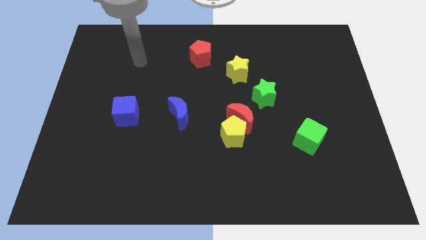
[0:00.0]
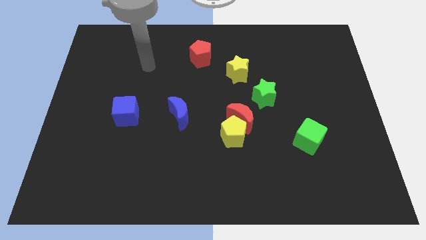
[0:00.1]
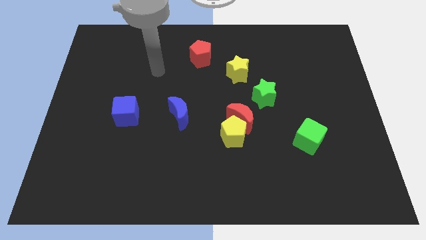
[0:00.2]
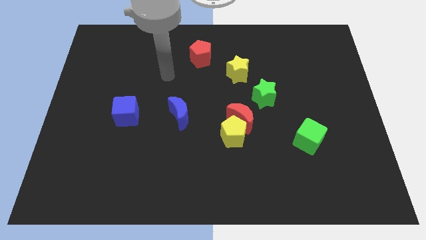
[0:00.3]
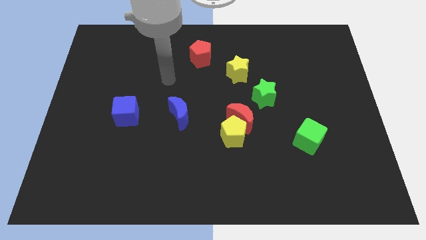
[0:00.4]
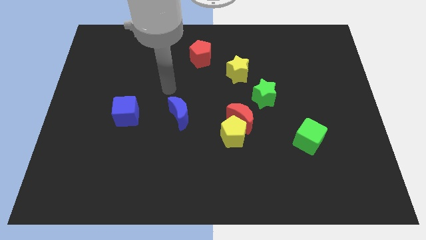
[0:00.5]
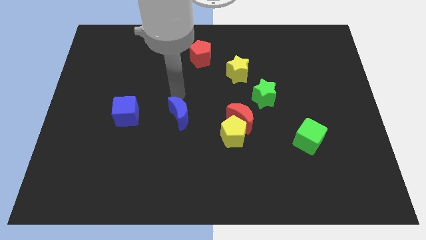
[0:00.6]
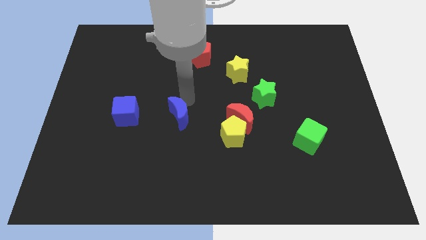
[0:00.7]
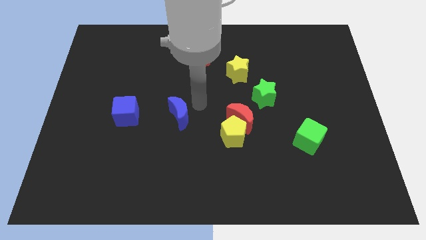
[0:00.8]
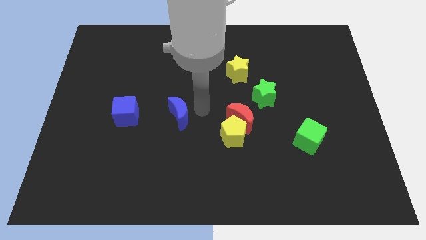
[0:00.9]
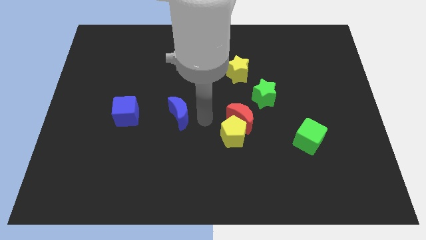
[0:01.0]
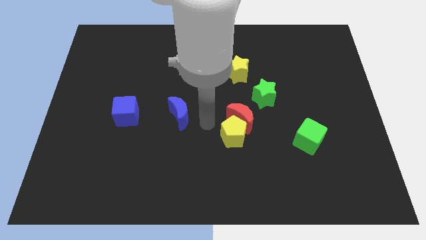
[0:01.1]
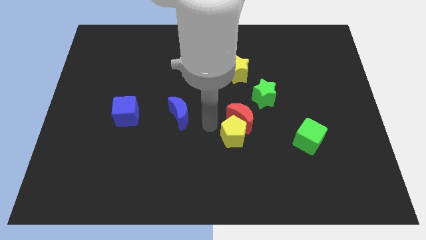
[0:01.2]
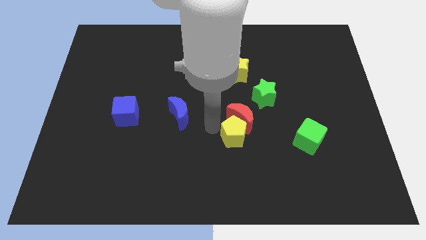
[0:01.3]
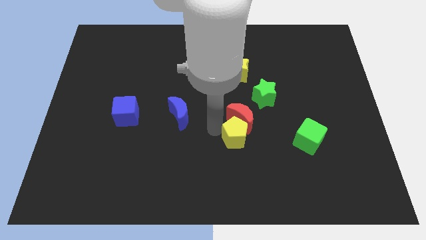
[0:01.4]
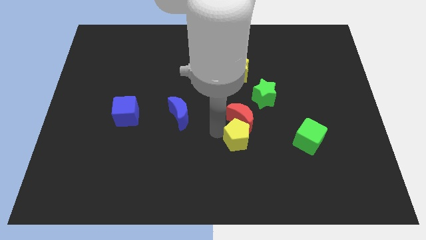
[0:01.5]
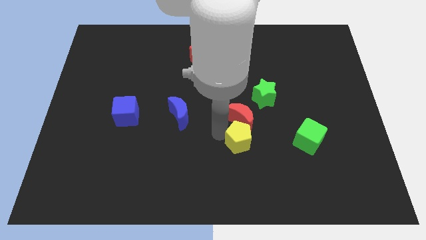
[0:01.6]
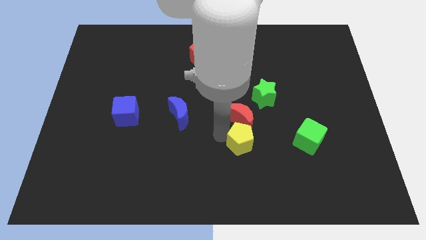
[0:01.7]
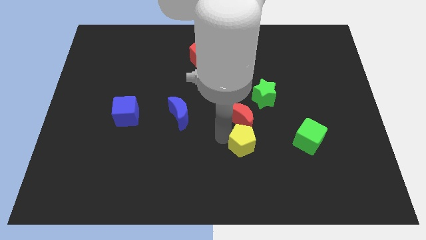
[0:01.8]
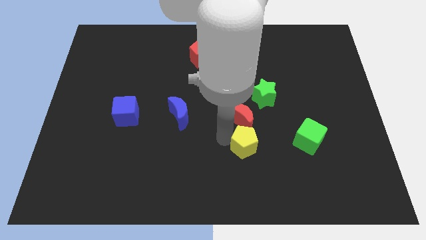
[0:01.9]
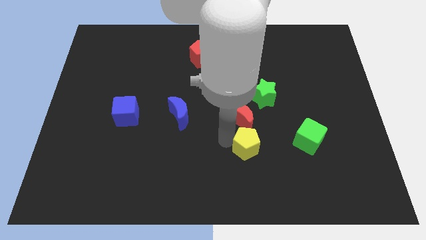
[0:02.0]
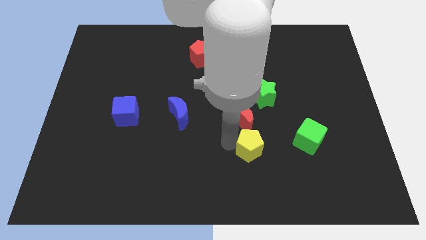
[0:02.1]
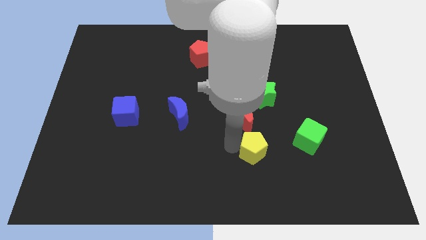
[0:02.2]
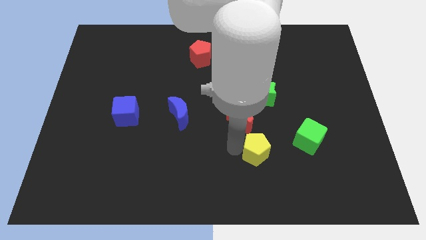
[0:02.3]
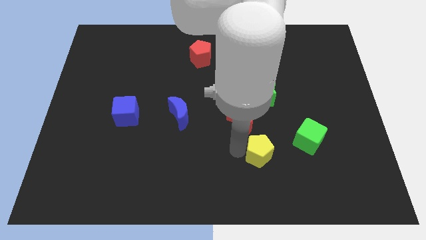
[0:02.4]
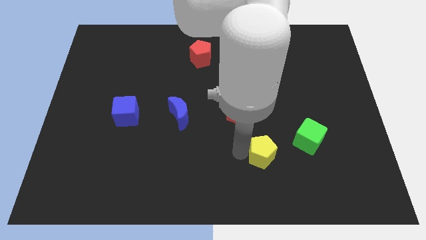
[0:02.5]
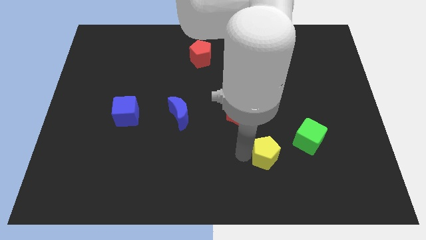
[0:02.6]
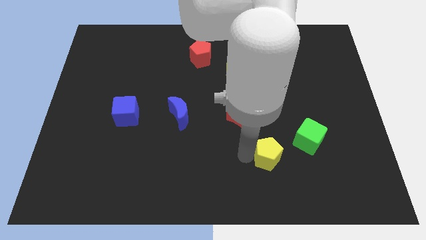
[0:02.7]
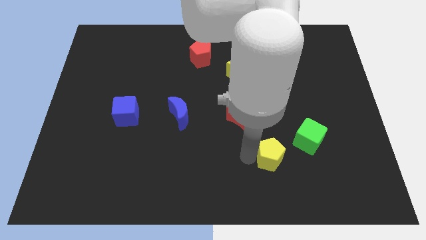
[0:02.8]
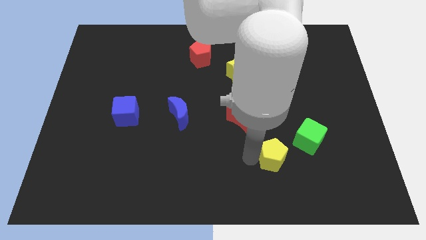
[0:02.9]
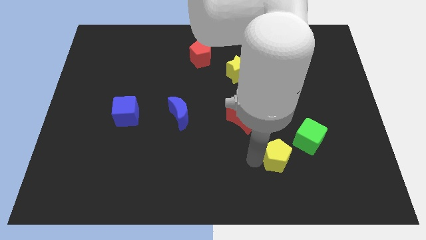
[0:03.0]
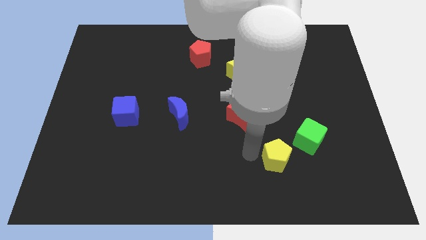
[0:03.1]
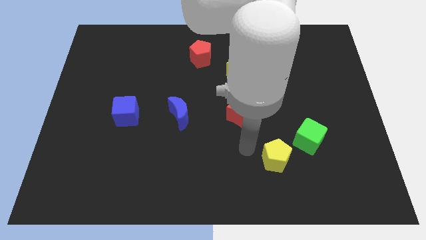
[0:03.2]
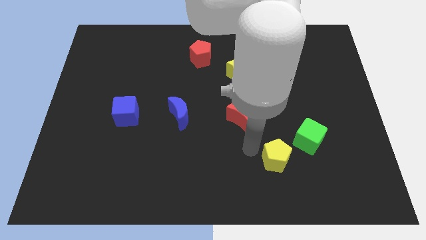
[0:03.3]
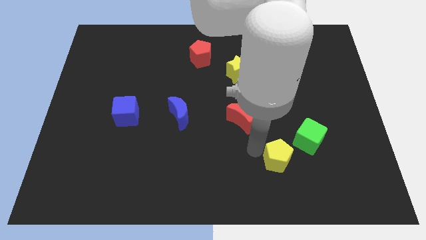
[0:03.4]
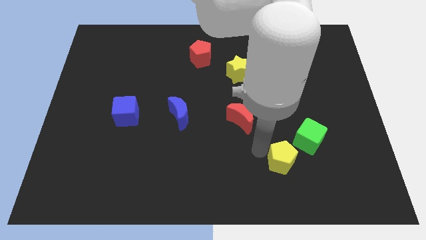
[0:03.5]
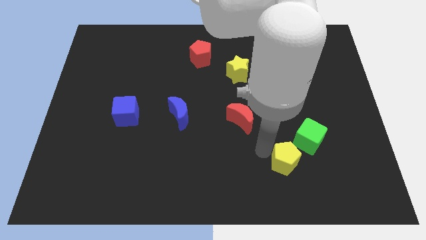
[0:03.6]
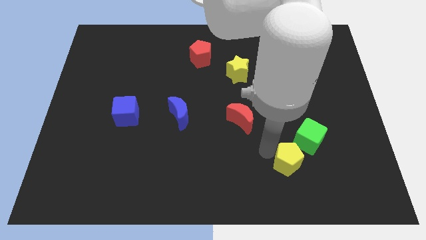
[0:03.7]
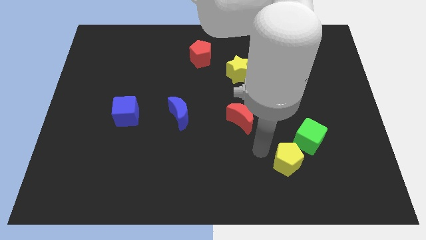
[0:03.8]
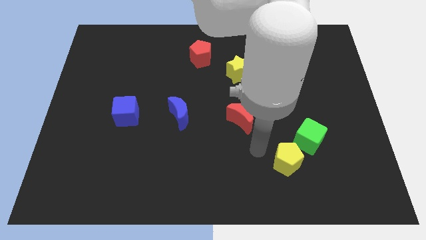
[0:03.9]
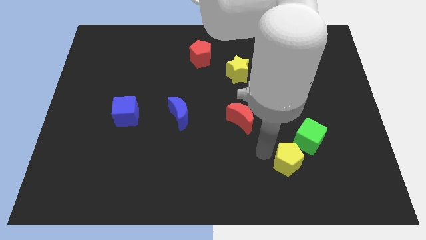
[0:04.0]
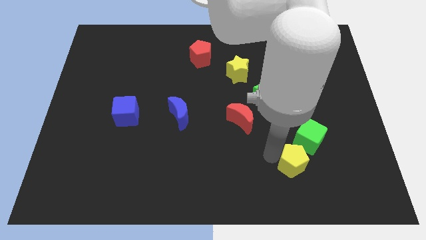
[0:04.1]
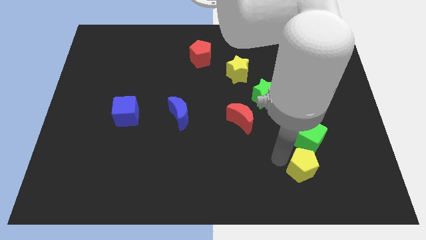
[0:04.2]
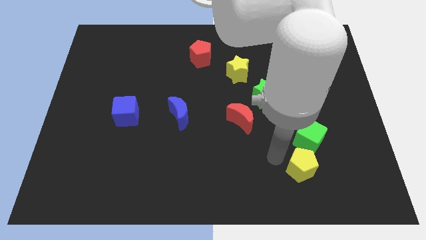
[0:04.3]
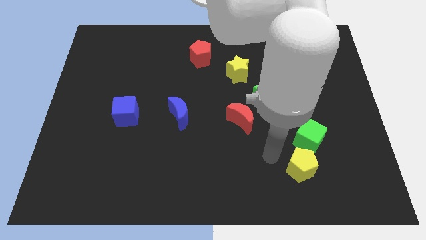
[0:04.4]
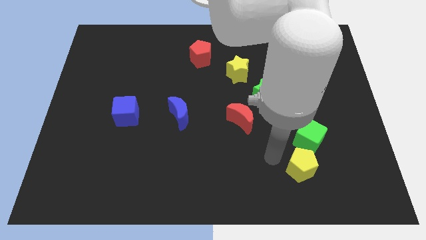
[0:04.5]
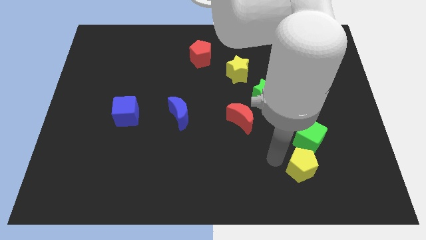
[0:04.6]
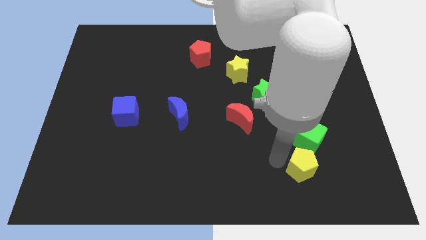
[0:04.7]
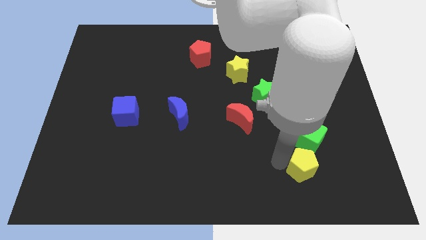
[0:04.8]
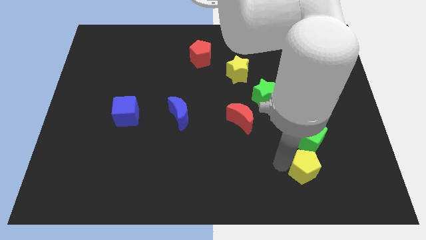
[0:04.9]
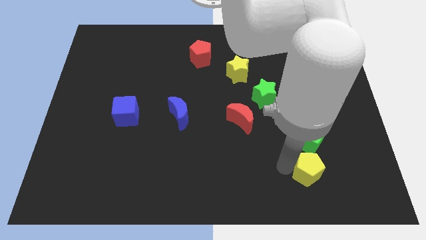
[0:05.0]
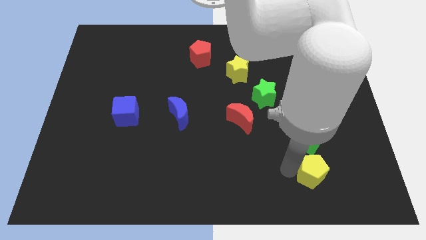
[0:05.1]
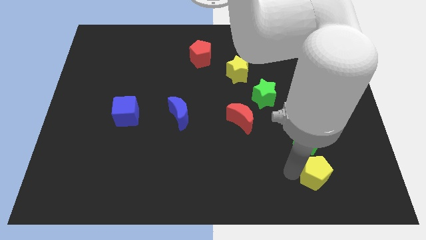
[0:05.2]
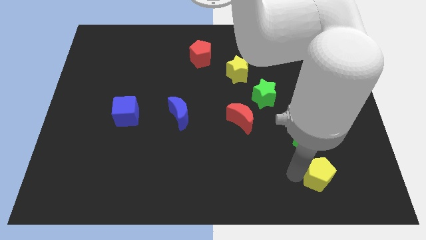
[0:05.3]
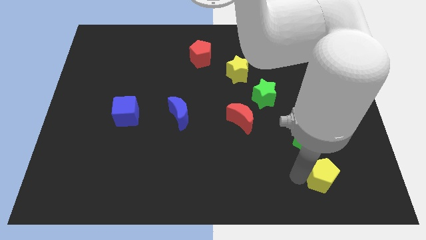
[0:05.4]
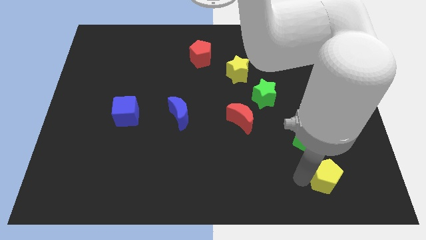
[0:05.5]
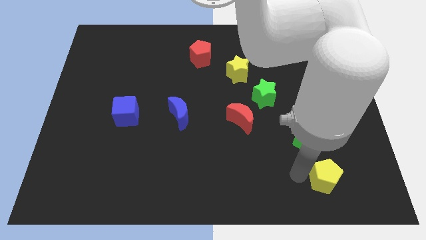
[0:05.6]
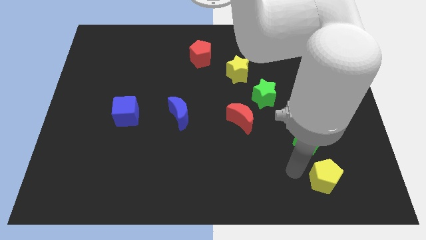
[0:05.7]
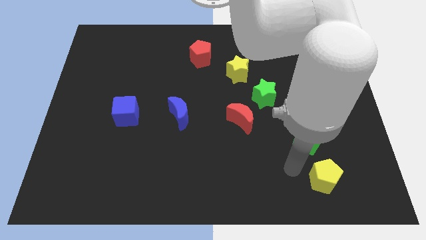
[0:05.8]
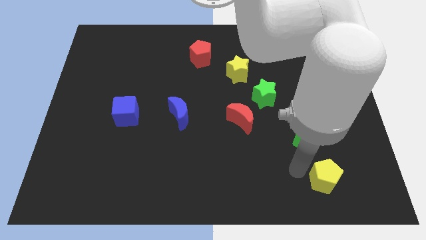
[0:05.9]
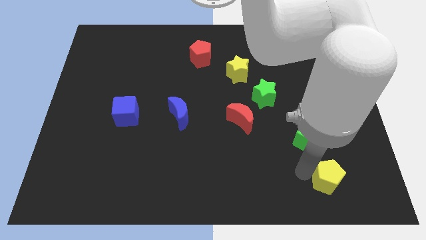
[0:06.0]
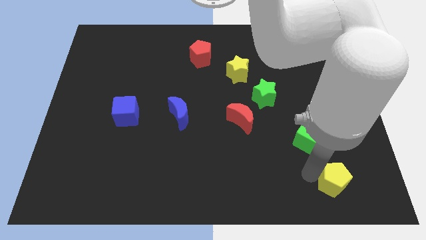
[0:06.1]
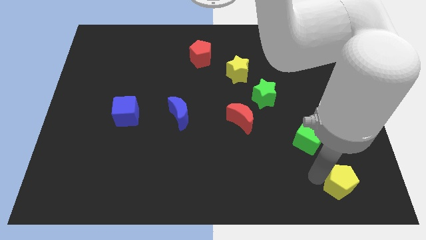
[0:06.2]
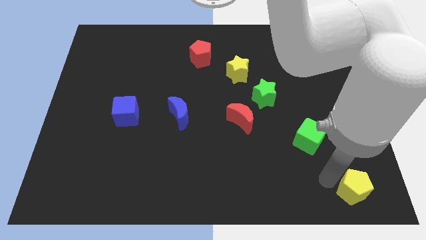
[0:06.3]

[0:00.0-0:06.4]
push the yellow pentagon to the bottom right

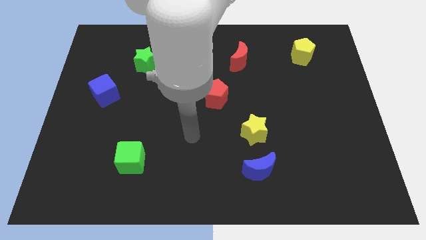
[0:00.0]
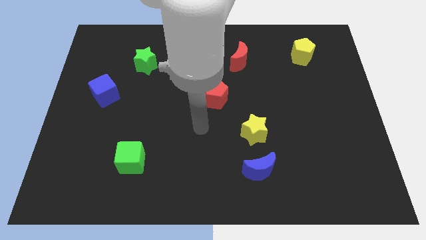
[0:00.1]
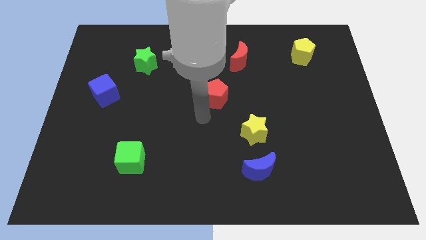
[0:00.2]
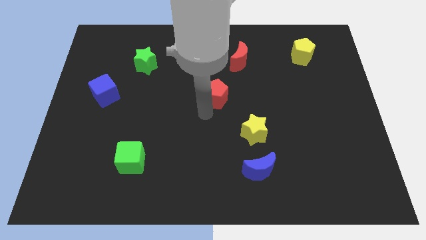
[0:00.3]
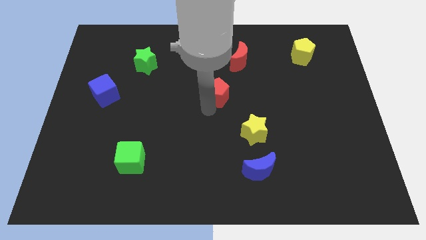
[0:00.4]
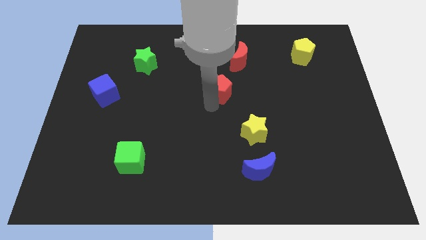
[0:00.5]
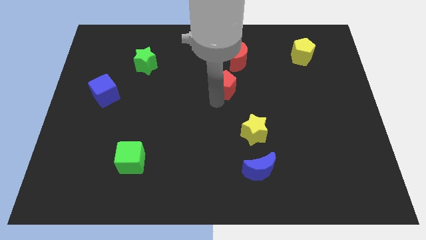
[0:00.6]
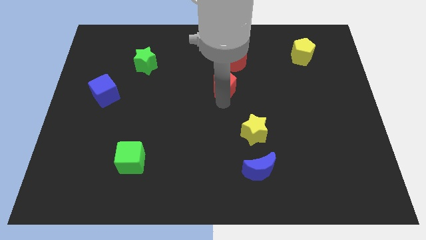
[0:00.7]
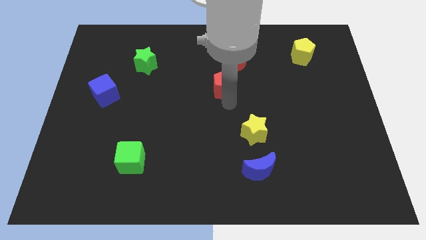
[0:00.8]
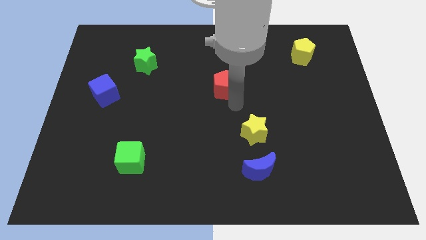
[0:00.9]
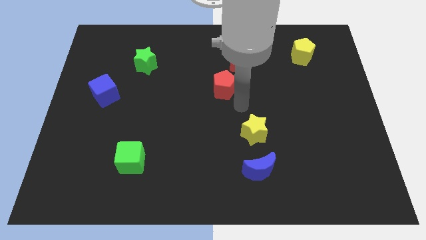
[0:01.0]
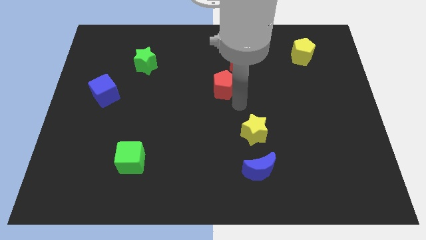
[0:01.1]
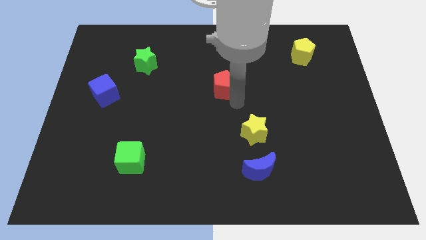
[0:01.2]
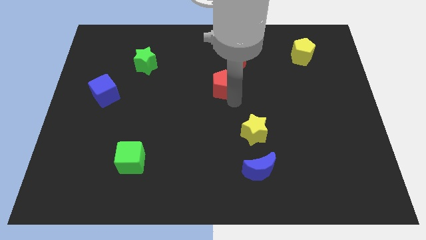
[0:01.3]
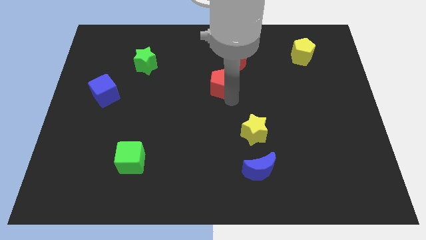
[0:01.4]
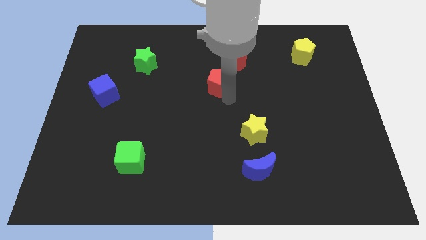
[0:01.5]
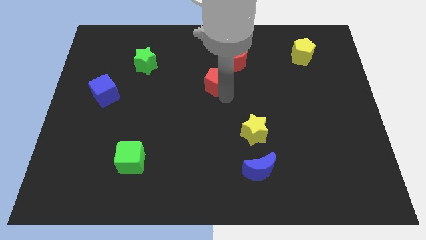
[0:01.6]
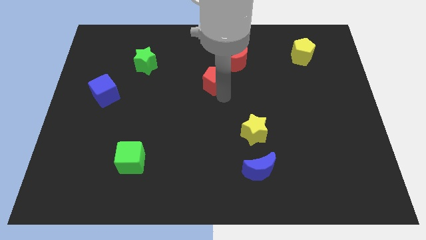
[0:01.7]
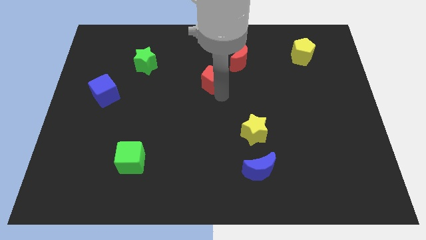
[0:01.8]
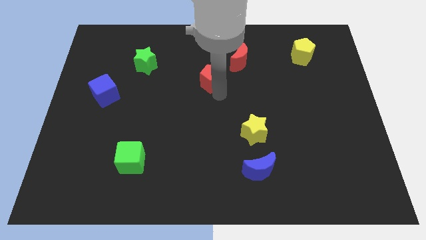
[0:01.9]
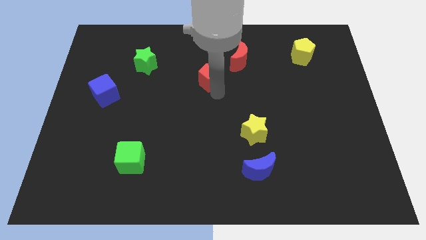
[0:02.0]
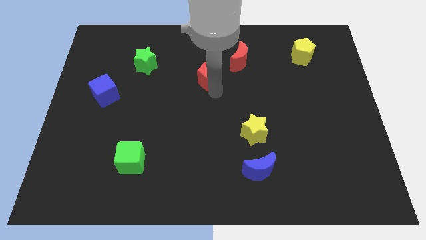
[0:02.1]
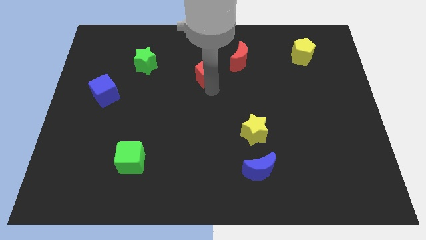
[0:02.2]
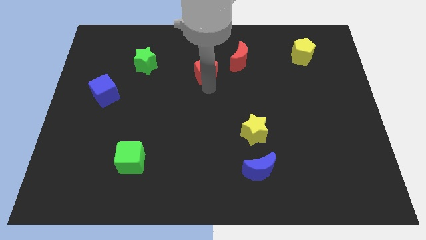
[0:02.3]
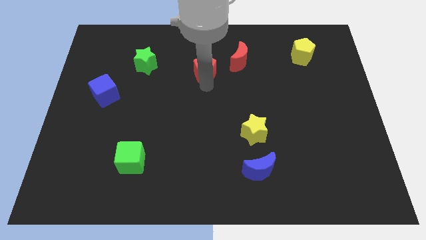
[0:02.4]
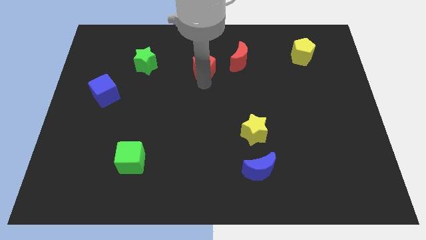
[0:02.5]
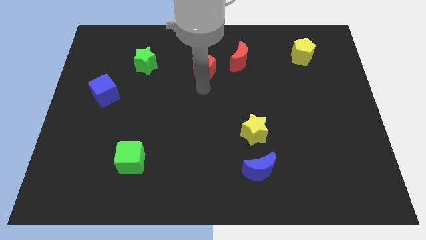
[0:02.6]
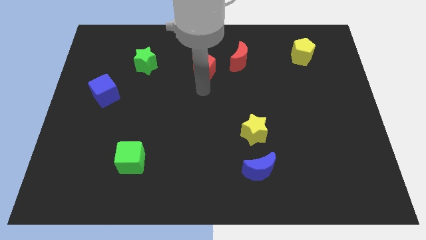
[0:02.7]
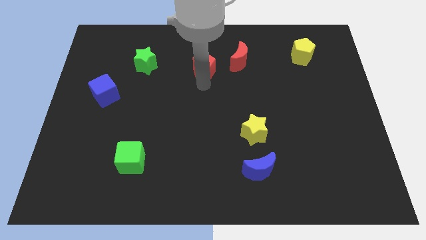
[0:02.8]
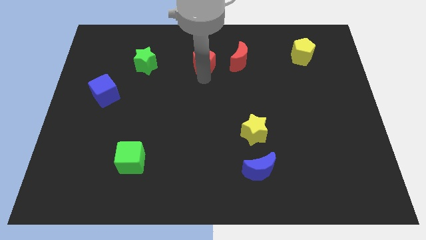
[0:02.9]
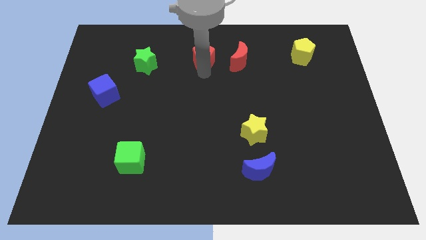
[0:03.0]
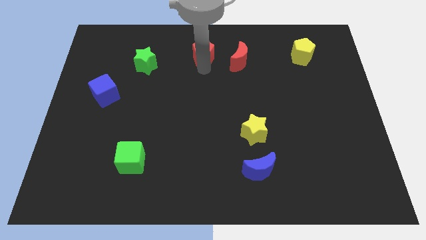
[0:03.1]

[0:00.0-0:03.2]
put the red pentagon to the top side
